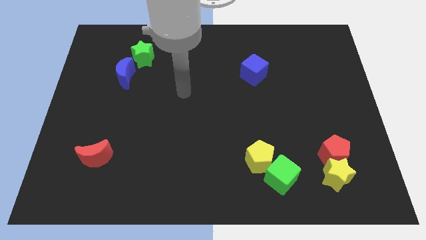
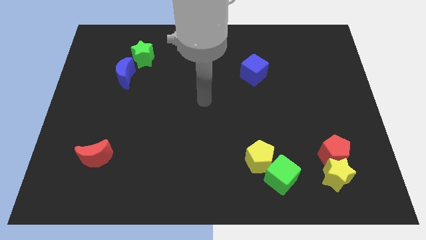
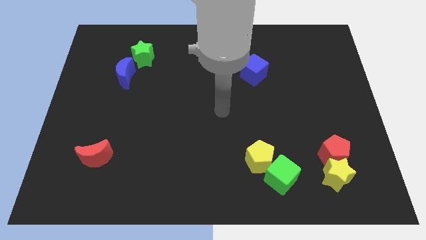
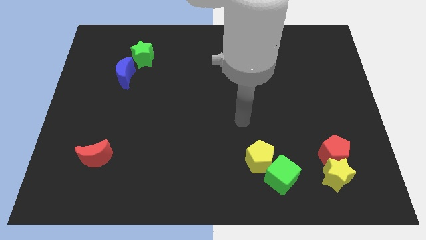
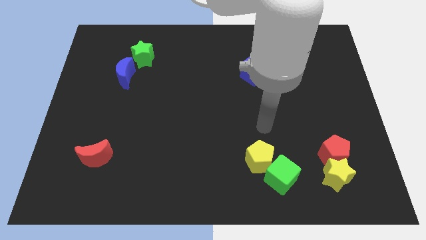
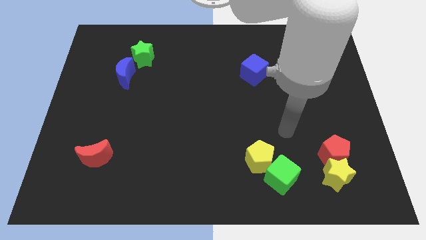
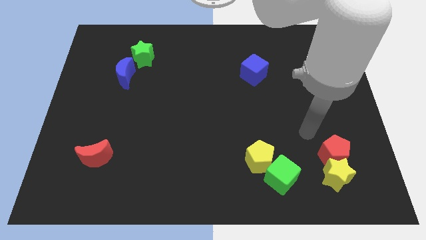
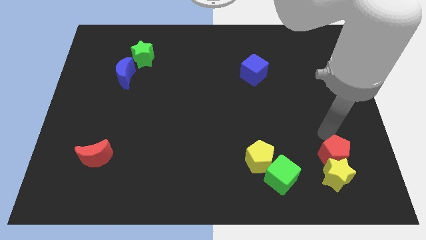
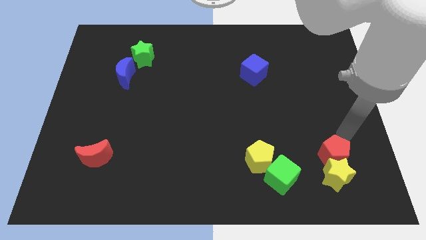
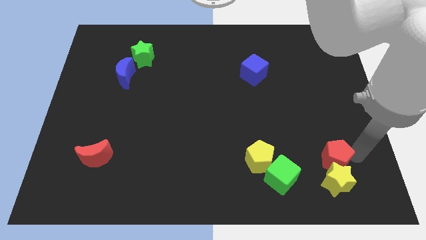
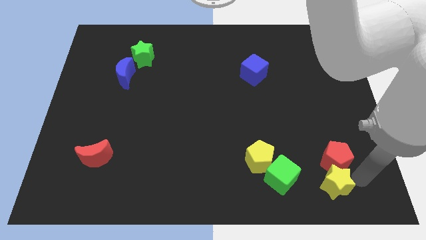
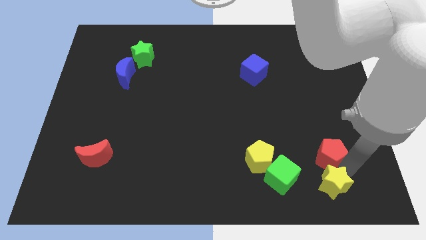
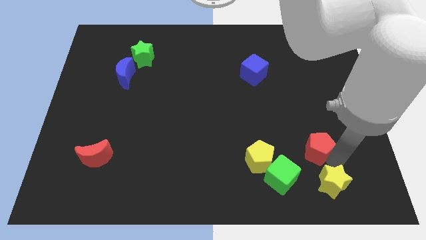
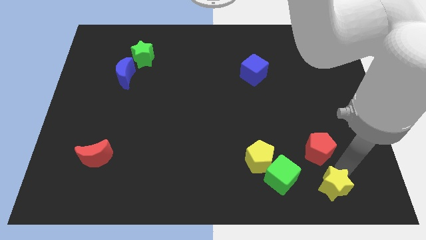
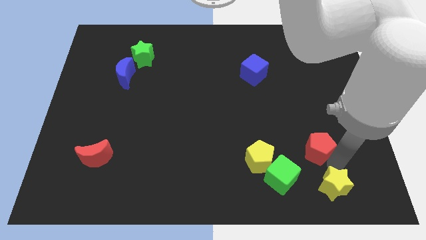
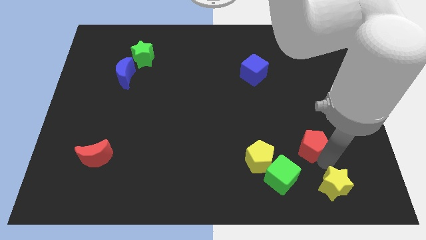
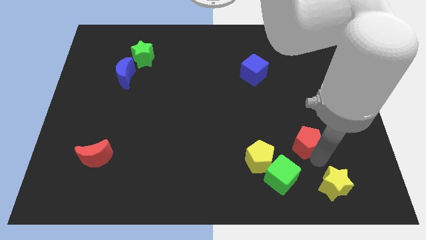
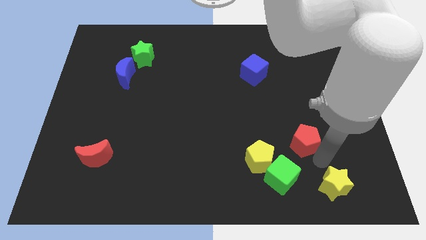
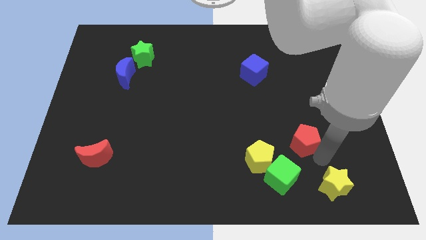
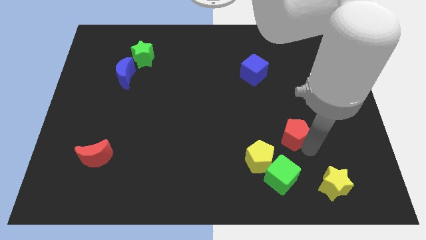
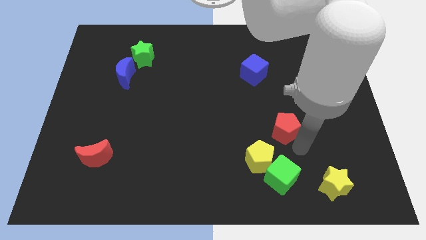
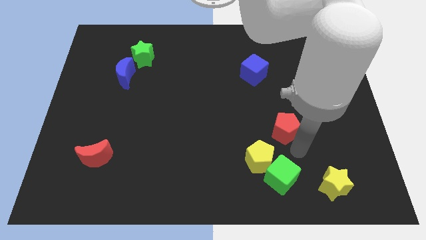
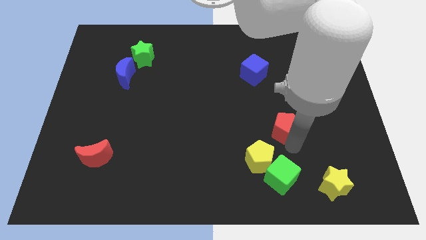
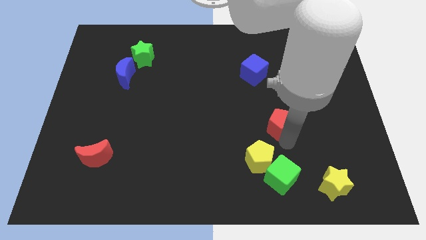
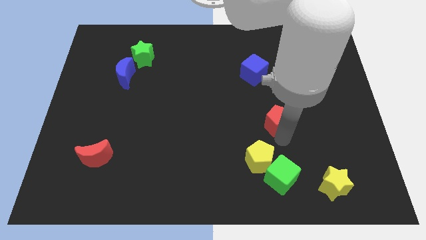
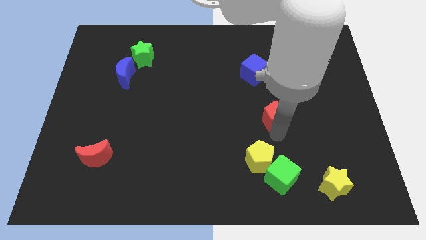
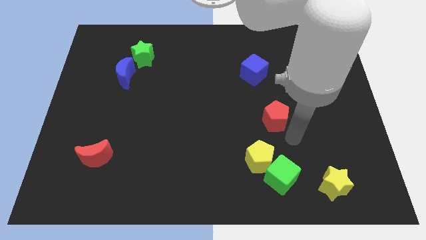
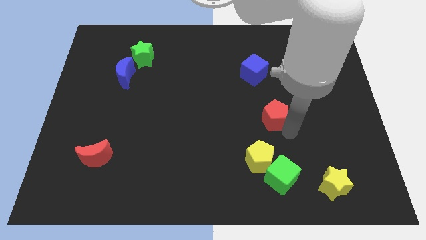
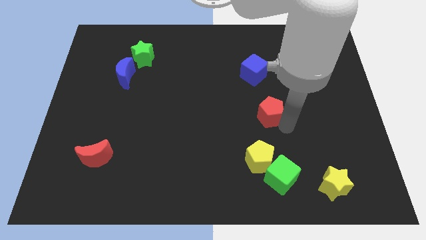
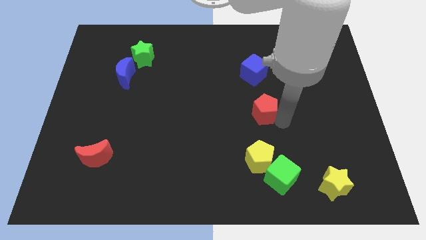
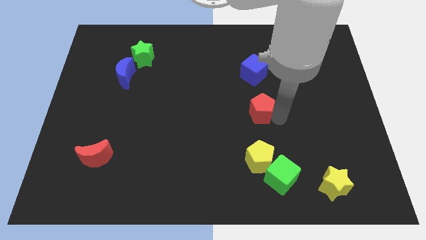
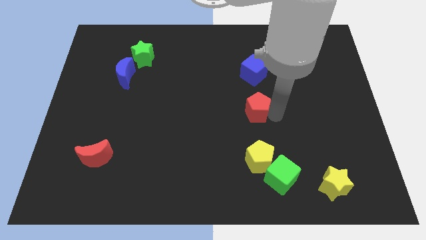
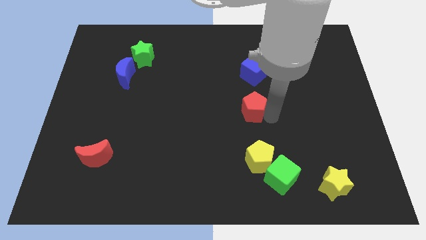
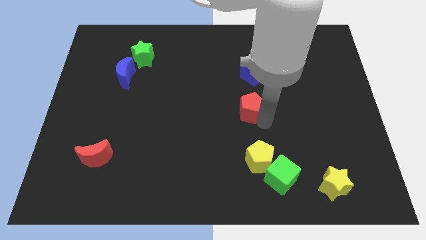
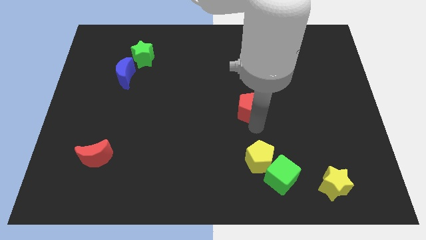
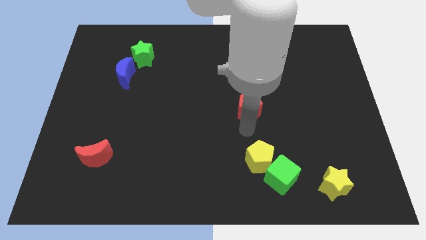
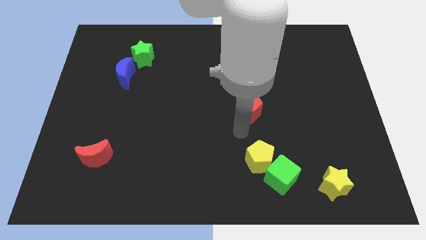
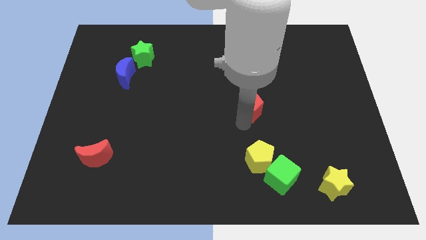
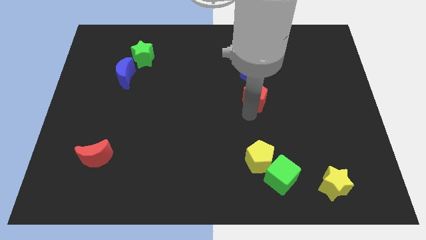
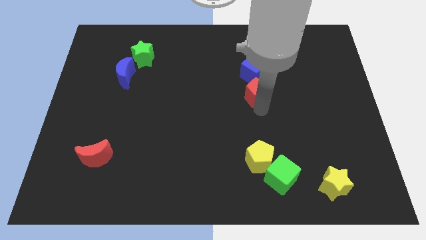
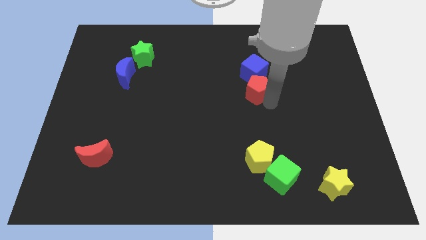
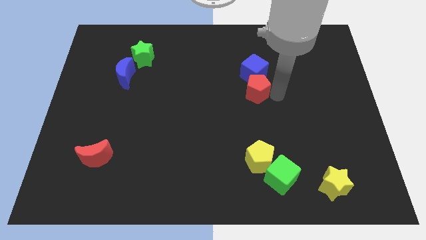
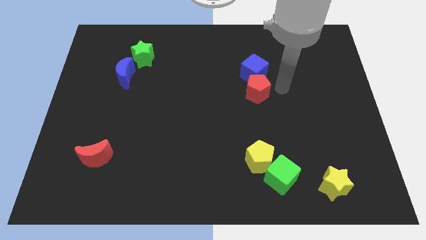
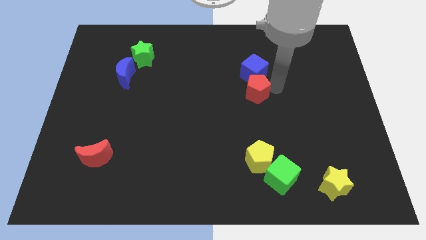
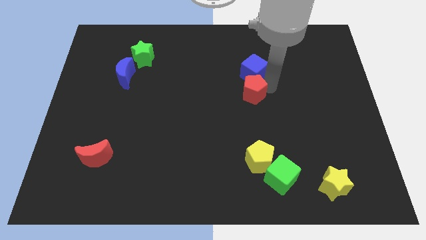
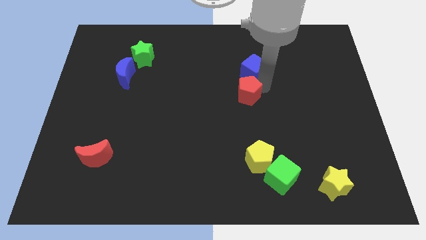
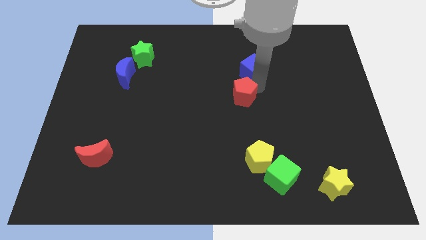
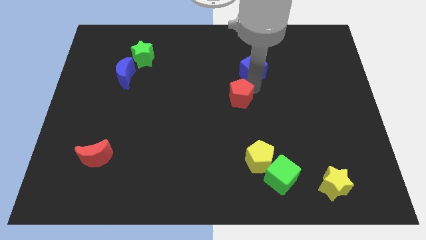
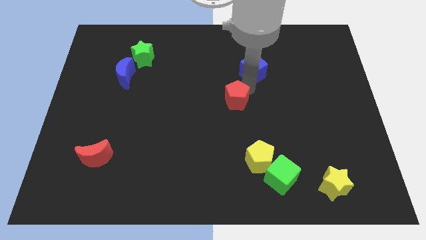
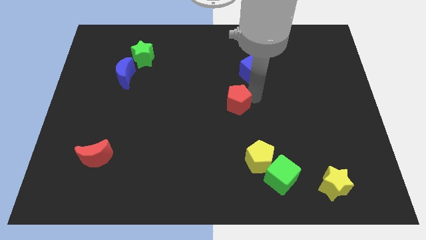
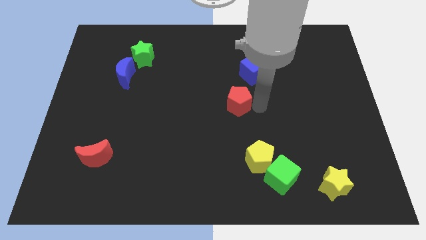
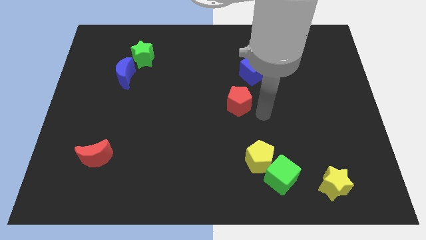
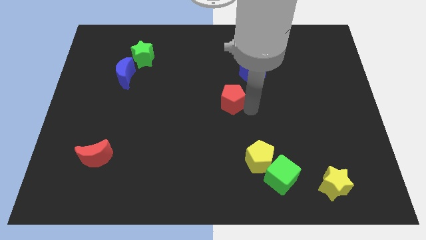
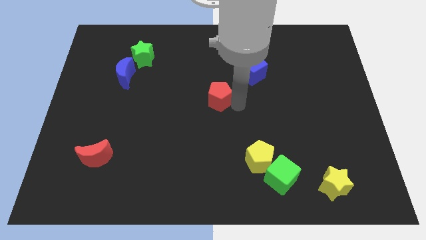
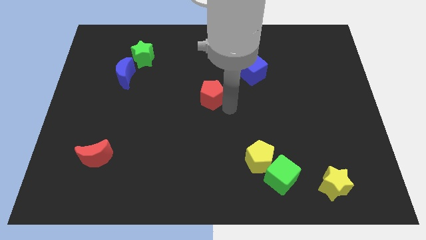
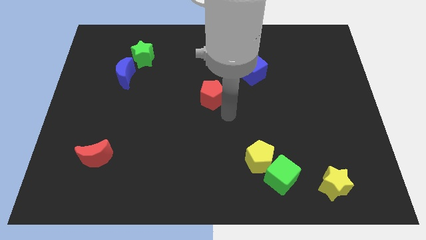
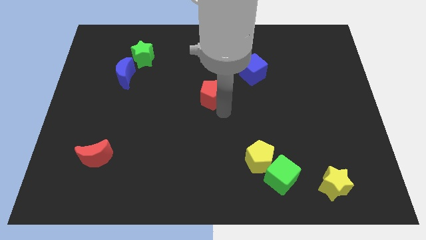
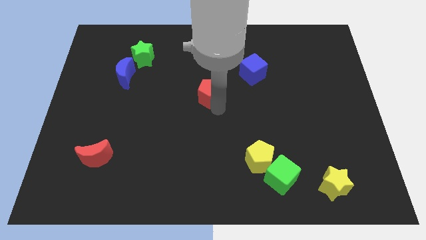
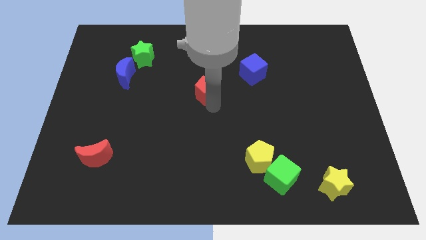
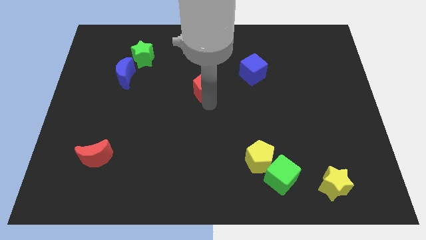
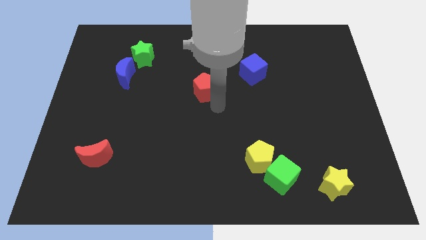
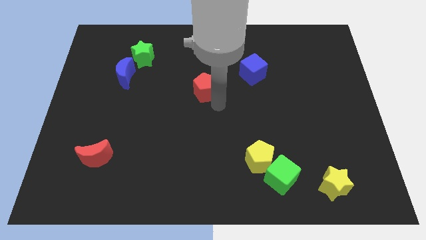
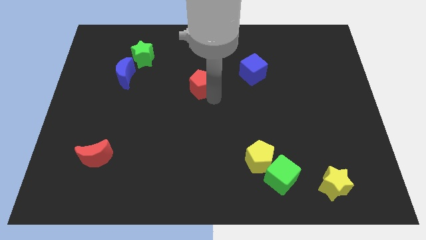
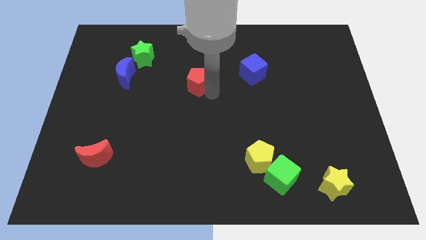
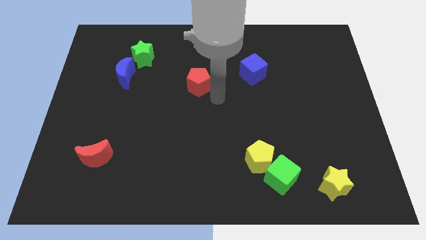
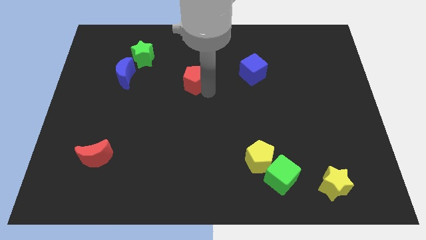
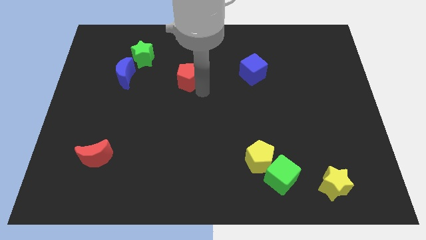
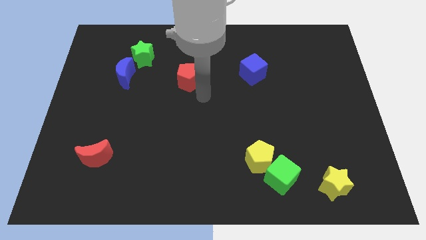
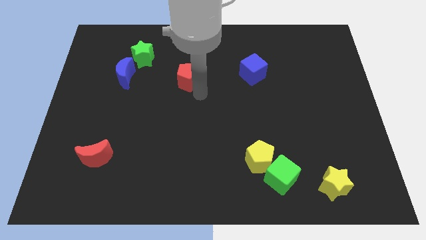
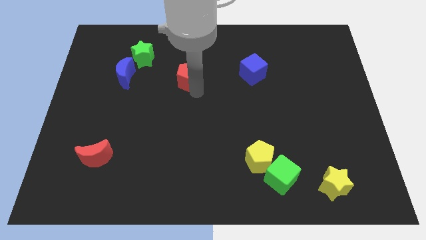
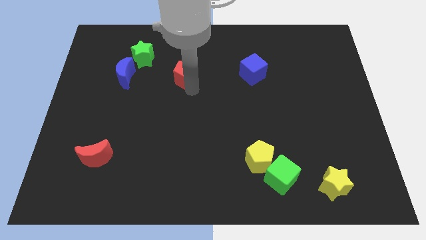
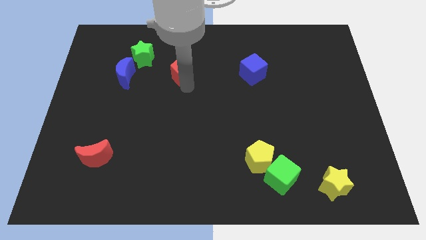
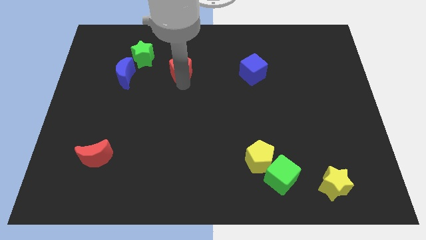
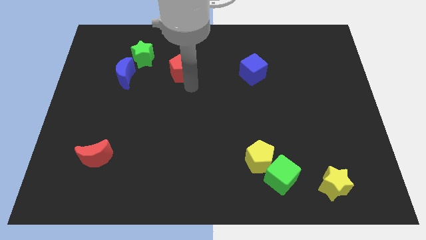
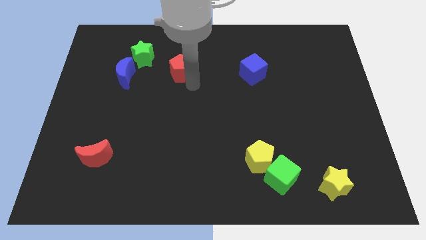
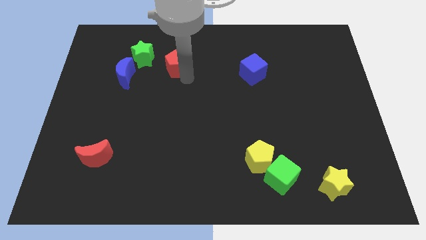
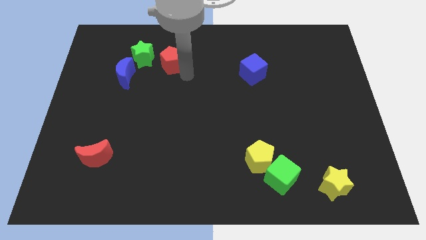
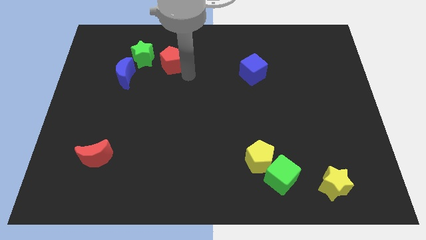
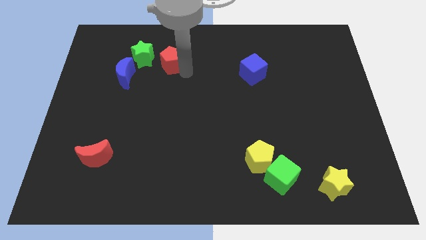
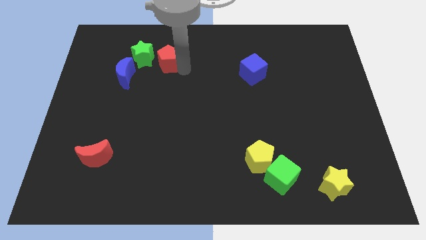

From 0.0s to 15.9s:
move the red pentagon to the top right of the blue moon
